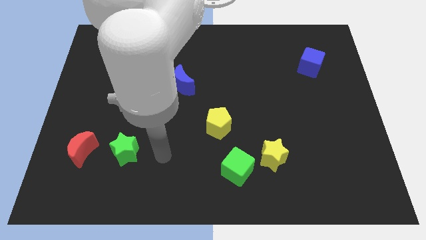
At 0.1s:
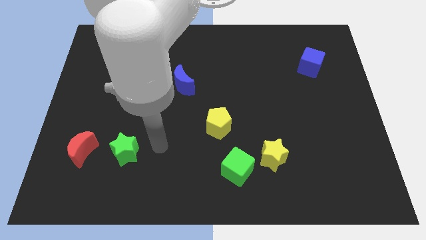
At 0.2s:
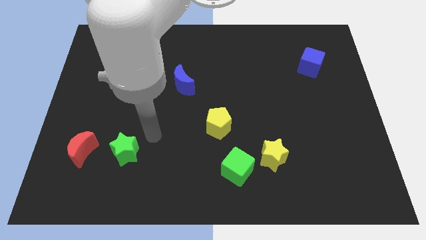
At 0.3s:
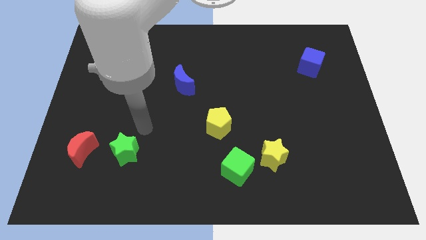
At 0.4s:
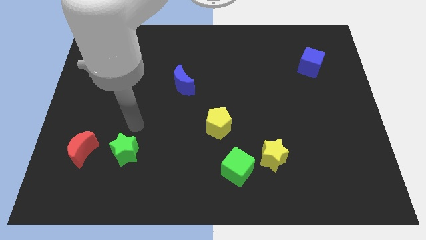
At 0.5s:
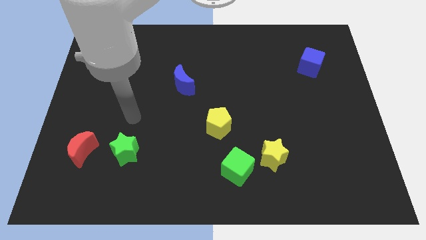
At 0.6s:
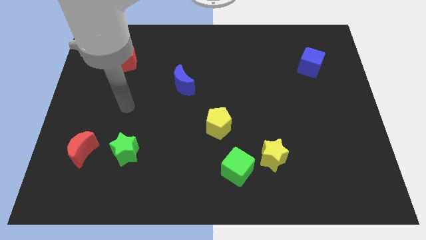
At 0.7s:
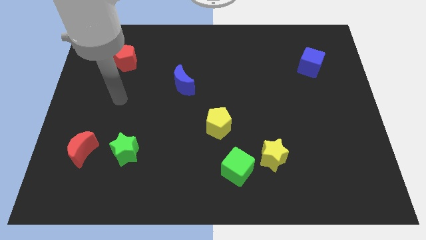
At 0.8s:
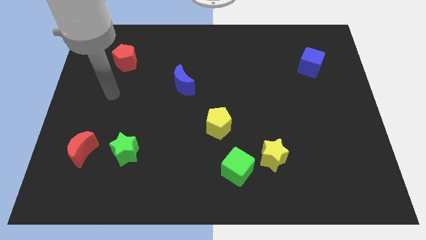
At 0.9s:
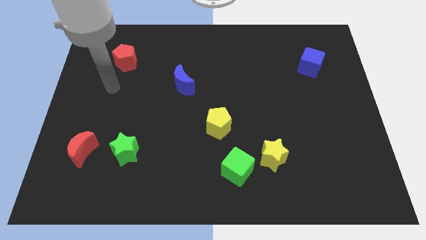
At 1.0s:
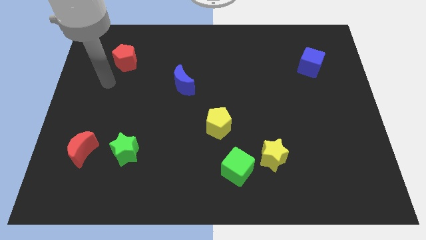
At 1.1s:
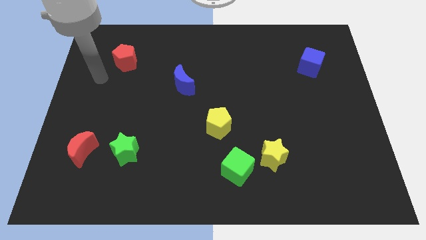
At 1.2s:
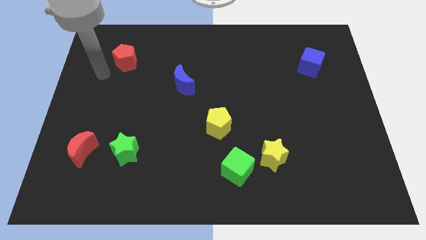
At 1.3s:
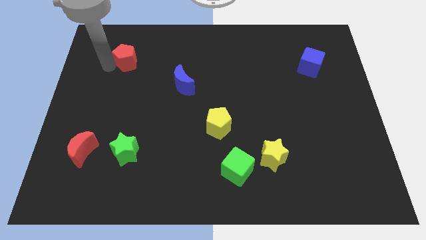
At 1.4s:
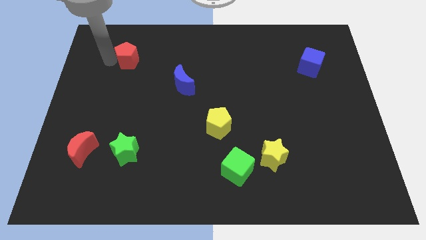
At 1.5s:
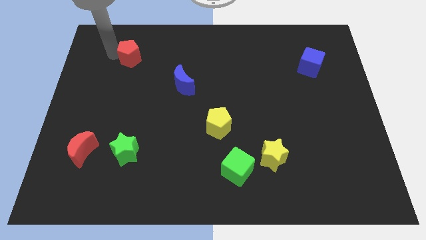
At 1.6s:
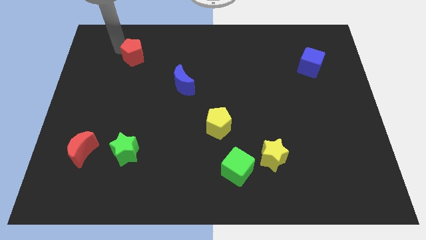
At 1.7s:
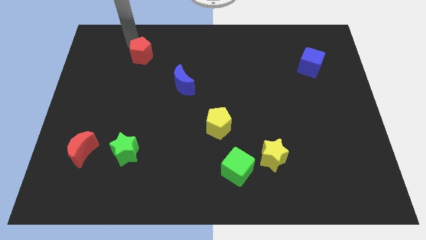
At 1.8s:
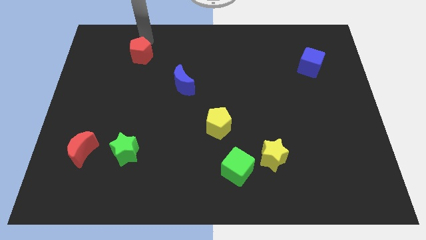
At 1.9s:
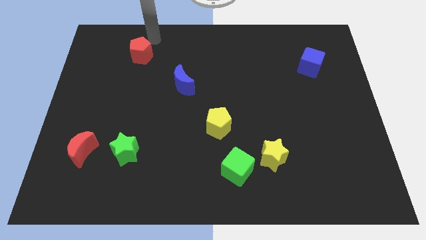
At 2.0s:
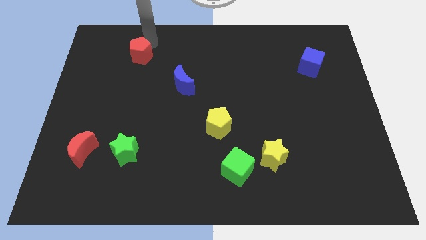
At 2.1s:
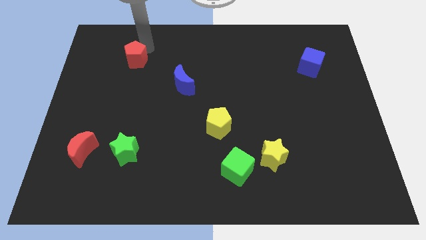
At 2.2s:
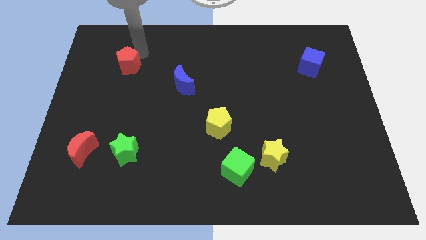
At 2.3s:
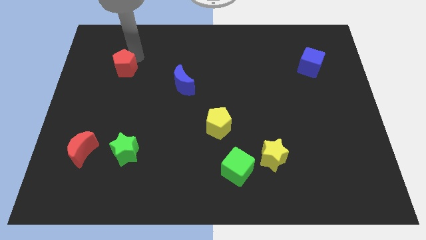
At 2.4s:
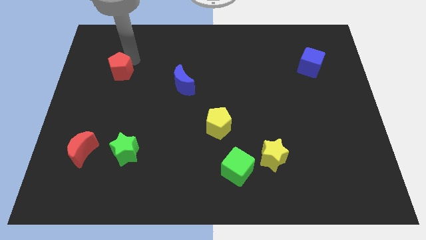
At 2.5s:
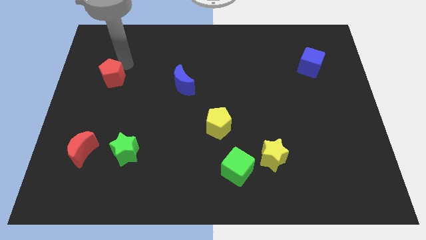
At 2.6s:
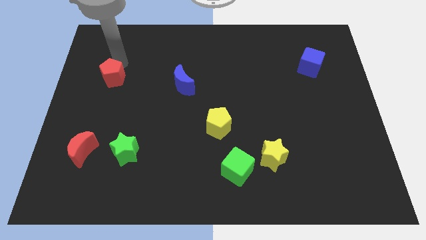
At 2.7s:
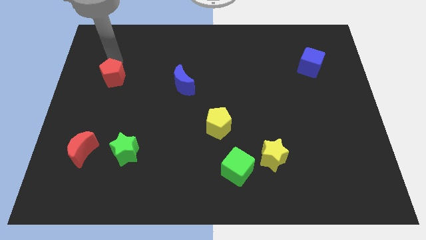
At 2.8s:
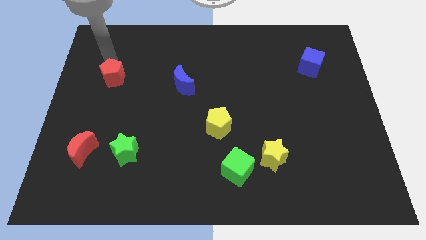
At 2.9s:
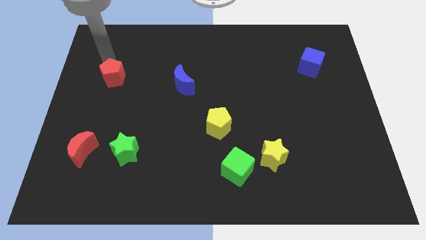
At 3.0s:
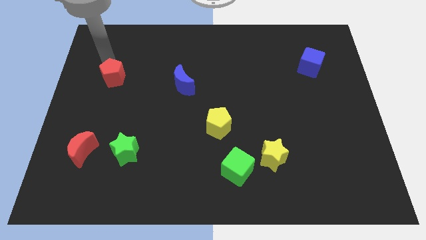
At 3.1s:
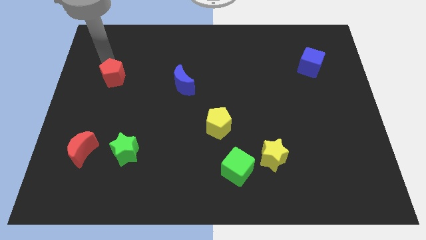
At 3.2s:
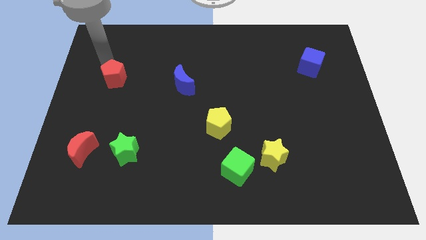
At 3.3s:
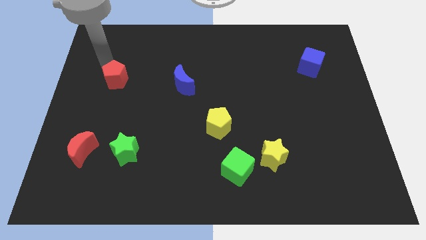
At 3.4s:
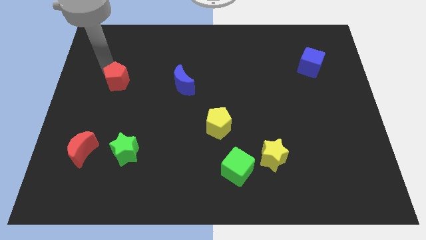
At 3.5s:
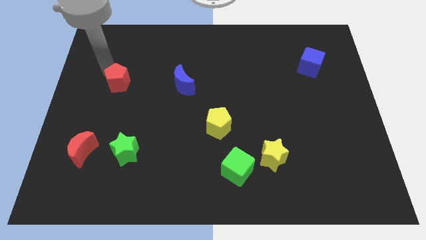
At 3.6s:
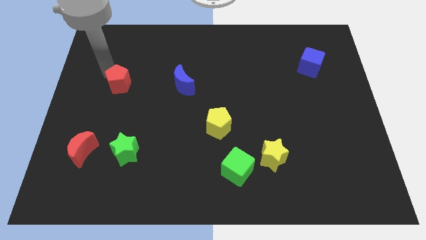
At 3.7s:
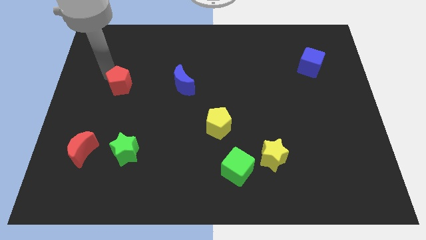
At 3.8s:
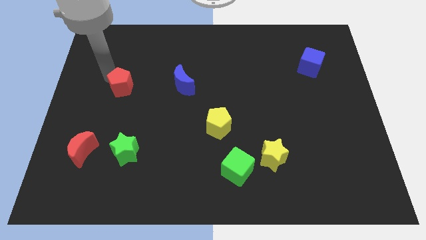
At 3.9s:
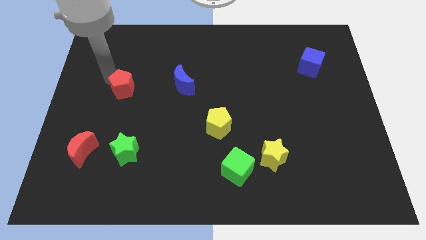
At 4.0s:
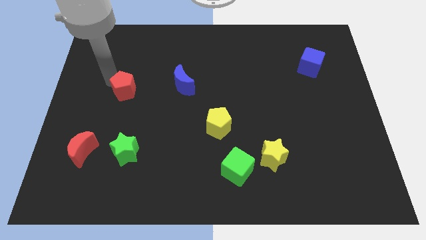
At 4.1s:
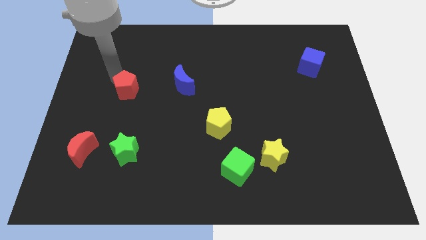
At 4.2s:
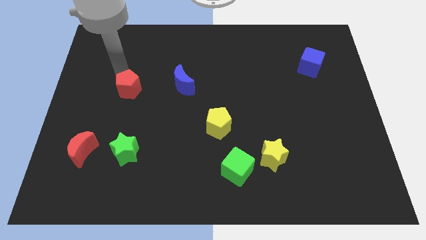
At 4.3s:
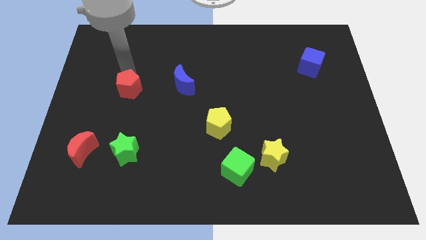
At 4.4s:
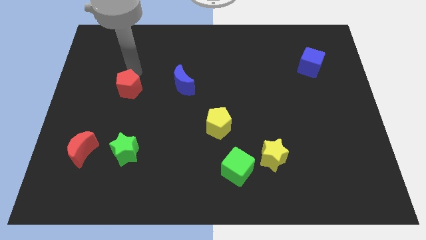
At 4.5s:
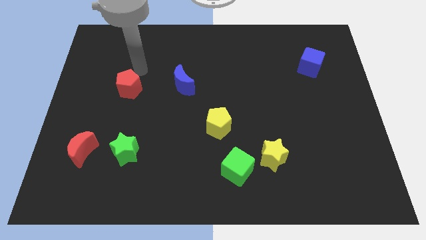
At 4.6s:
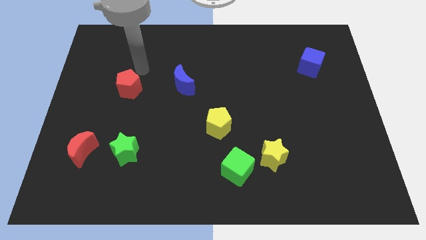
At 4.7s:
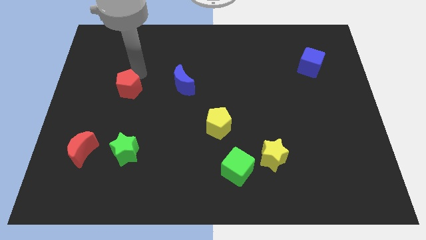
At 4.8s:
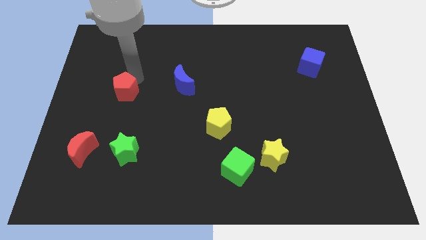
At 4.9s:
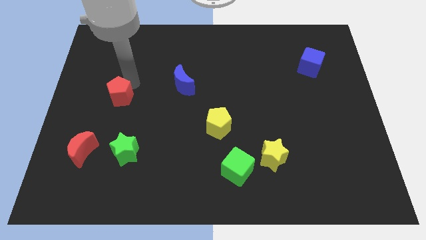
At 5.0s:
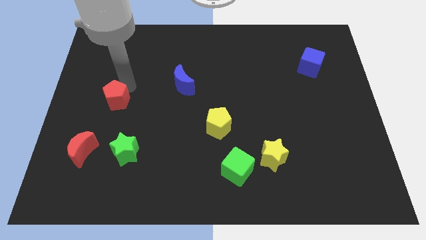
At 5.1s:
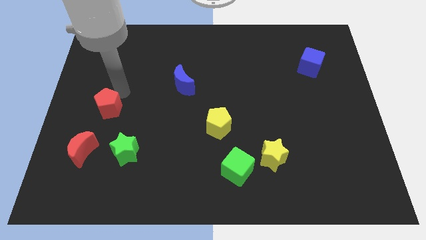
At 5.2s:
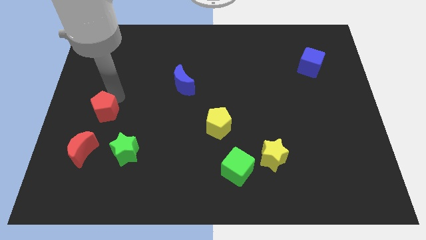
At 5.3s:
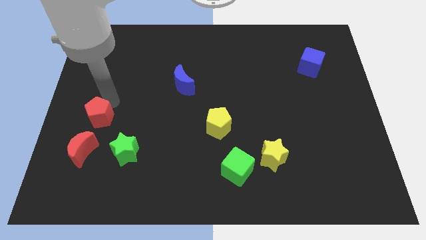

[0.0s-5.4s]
put the red pentagon to the top left side of the green star

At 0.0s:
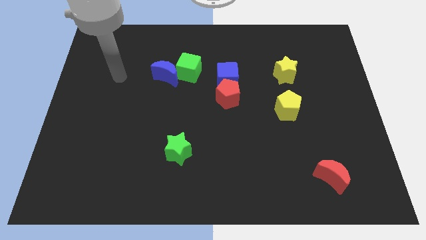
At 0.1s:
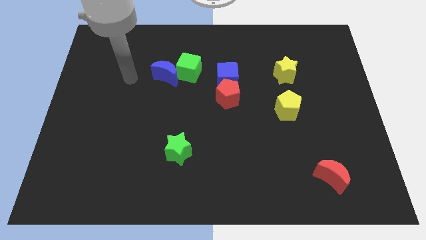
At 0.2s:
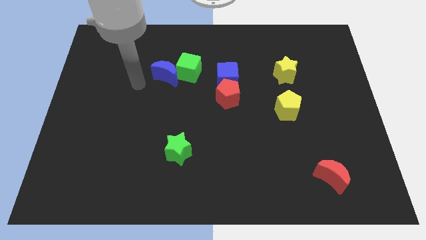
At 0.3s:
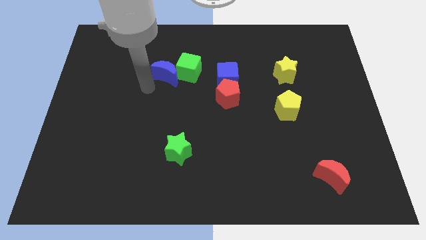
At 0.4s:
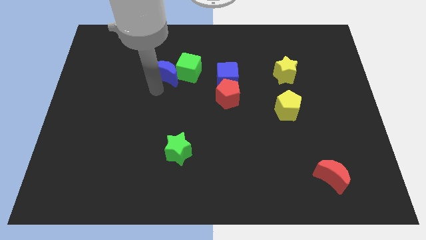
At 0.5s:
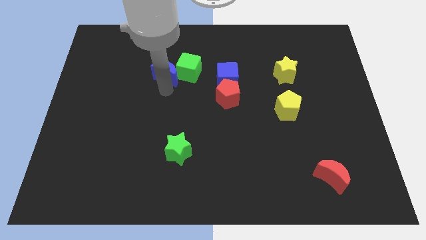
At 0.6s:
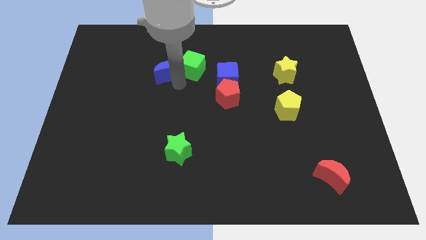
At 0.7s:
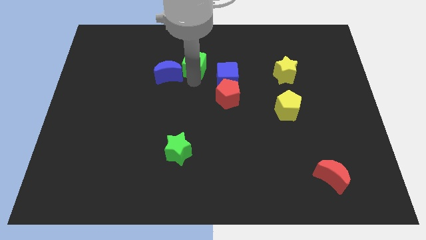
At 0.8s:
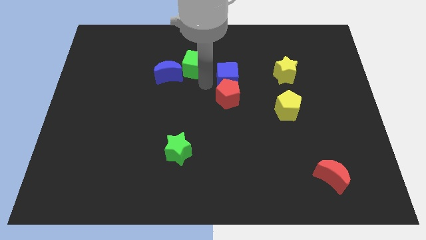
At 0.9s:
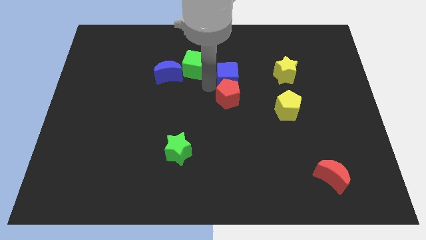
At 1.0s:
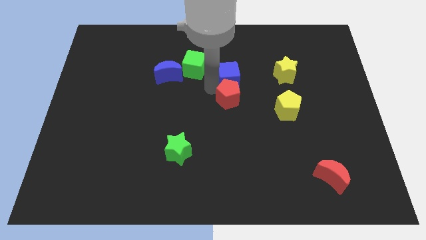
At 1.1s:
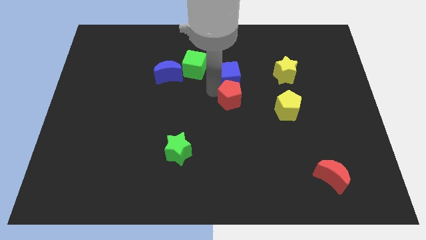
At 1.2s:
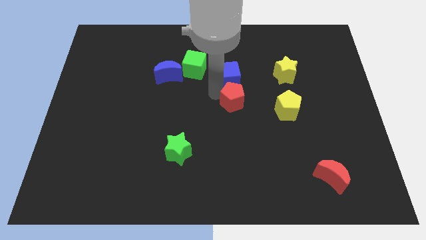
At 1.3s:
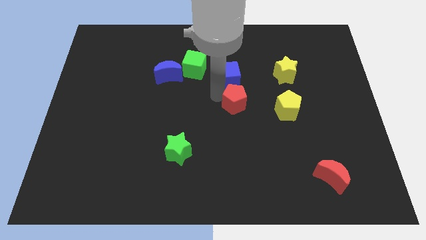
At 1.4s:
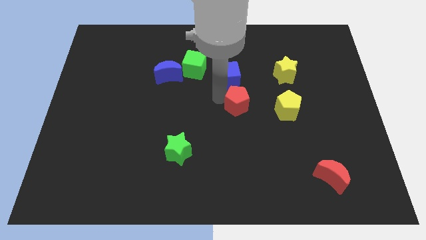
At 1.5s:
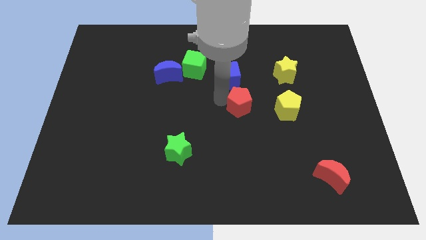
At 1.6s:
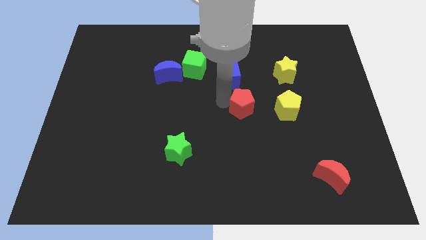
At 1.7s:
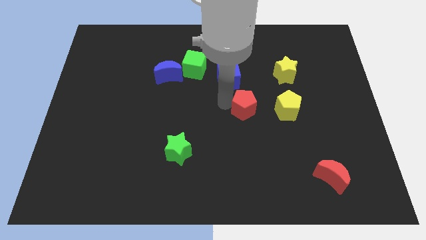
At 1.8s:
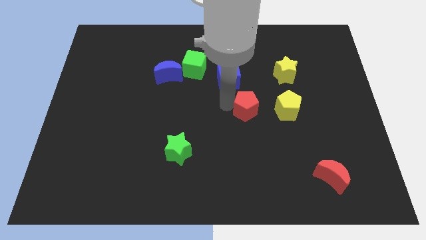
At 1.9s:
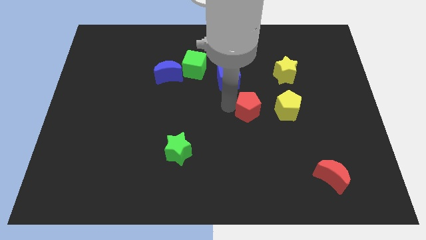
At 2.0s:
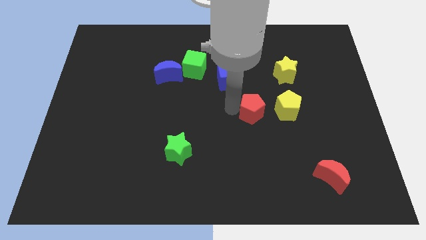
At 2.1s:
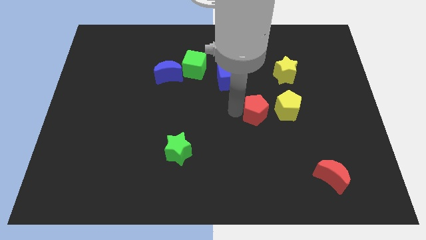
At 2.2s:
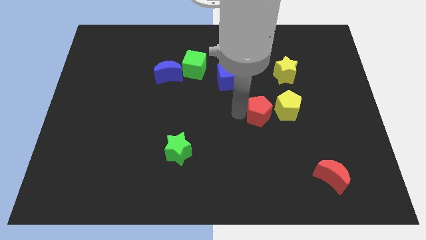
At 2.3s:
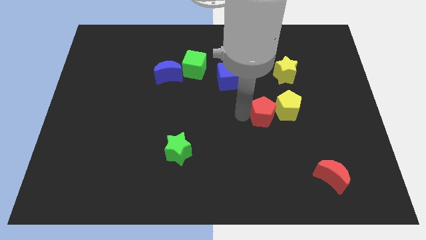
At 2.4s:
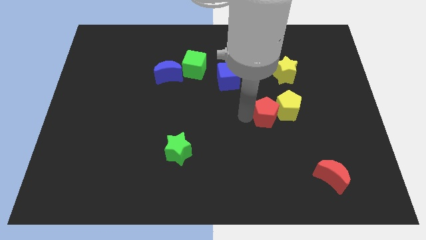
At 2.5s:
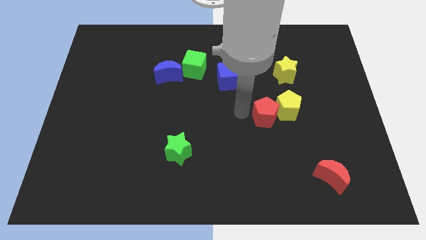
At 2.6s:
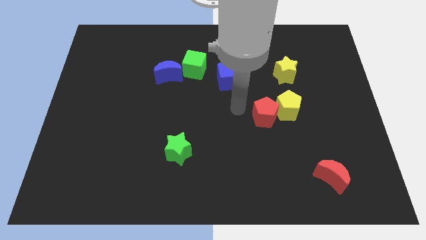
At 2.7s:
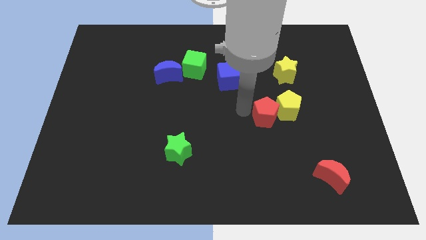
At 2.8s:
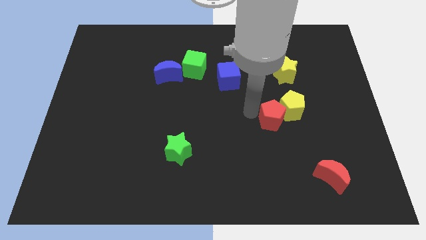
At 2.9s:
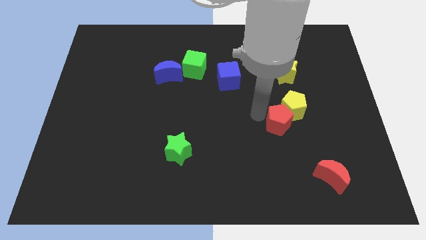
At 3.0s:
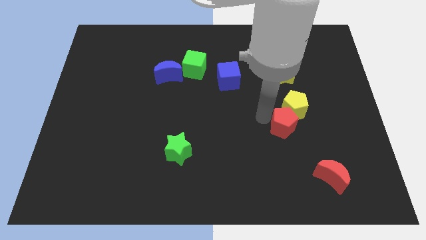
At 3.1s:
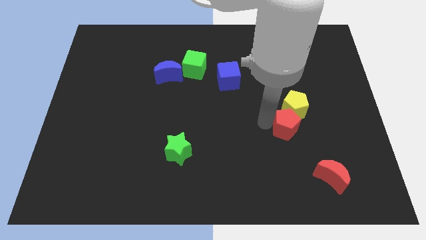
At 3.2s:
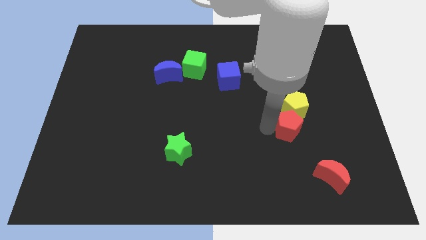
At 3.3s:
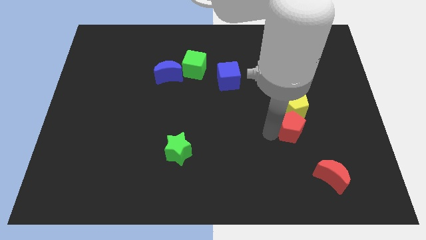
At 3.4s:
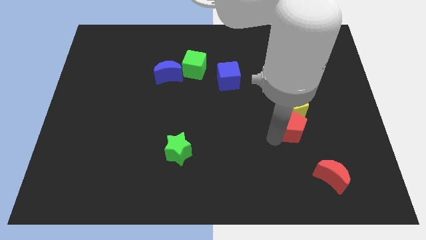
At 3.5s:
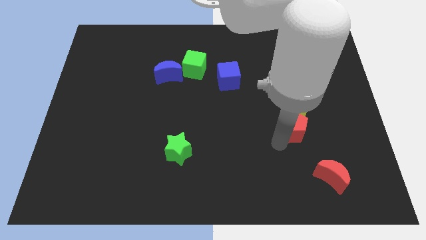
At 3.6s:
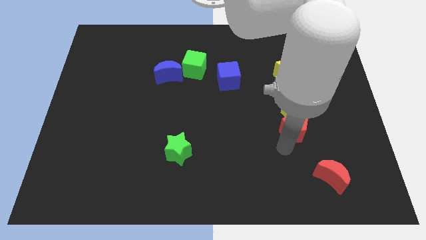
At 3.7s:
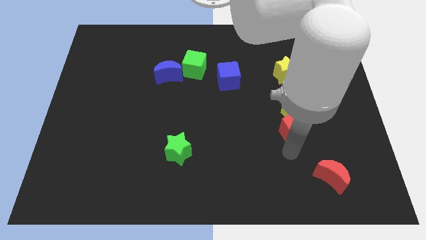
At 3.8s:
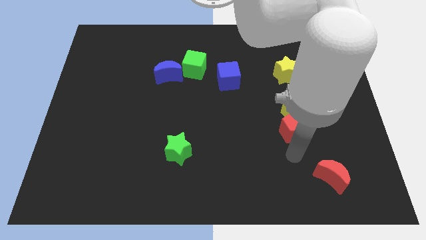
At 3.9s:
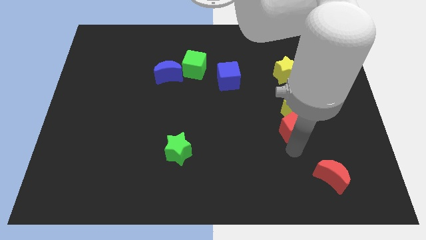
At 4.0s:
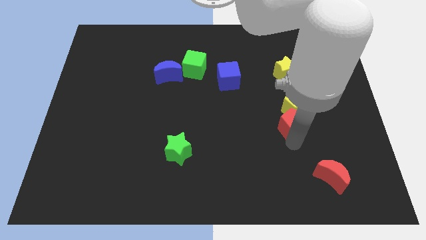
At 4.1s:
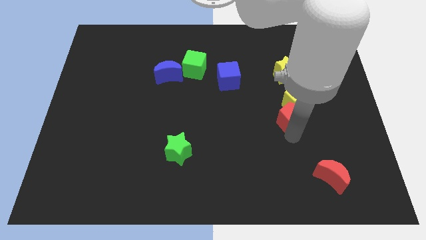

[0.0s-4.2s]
push the red pentagon to the bottom side of the yellow star
